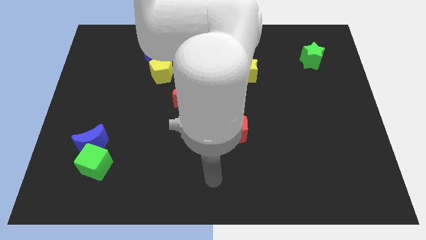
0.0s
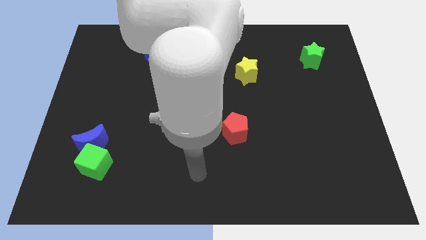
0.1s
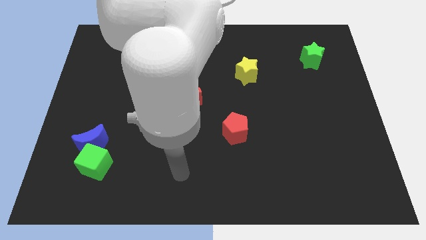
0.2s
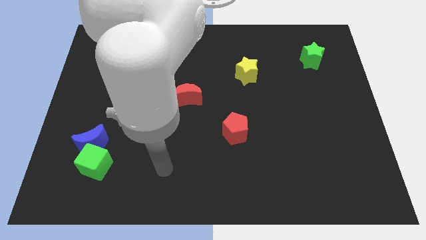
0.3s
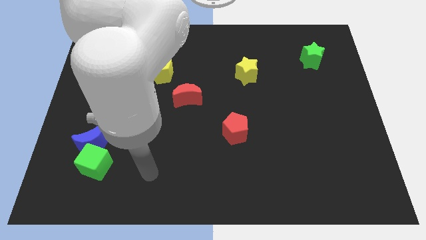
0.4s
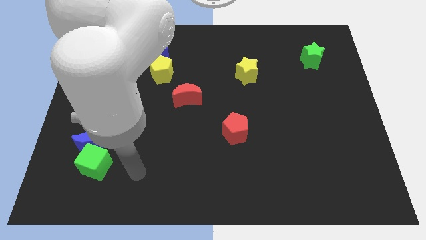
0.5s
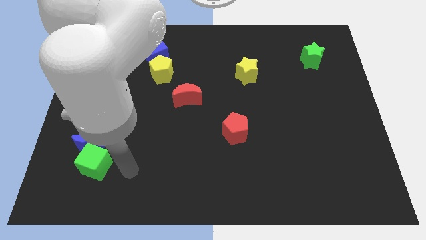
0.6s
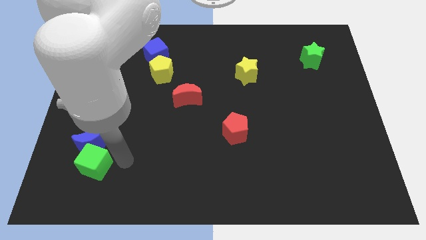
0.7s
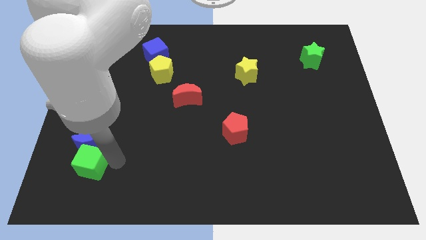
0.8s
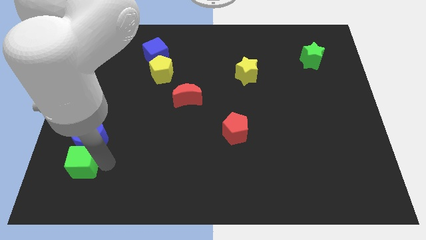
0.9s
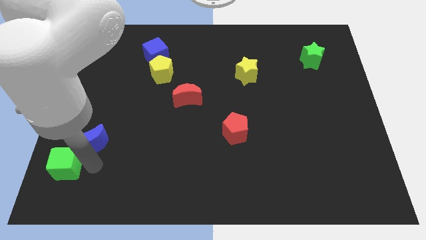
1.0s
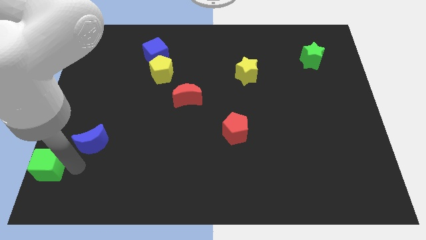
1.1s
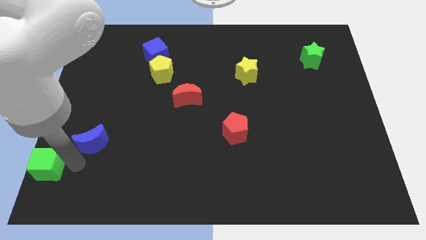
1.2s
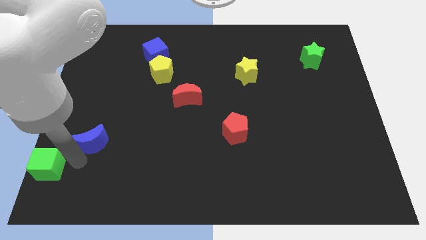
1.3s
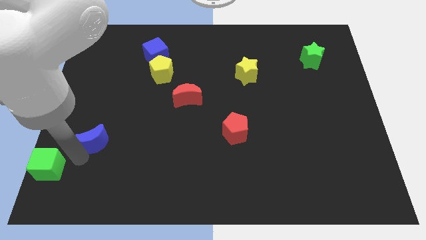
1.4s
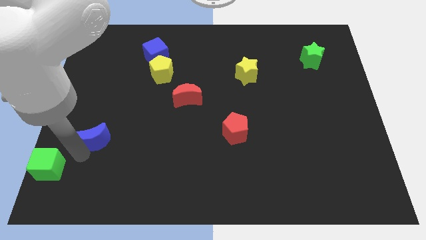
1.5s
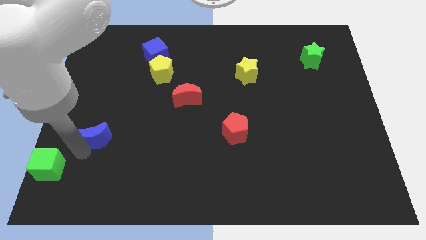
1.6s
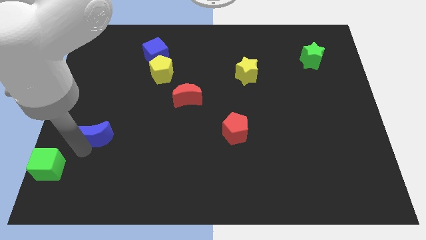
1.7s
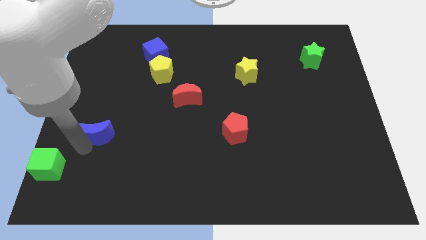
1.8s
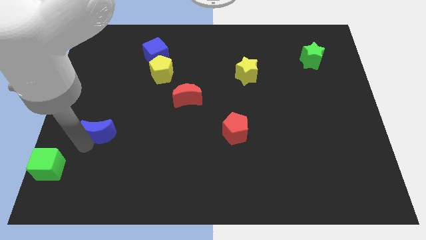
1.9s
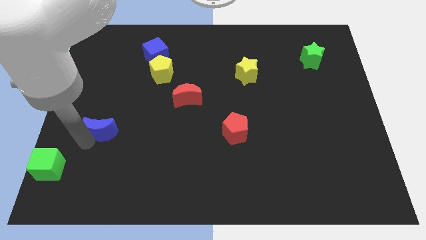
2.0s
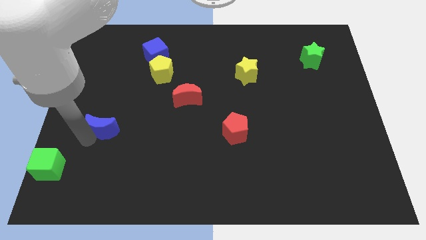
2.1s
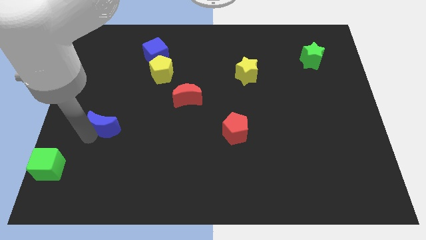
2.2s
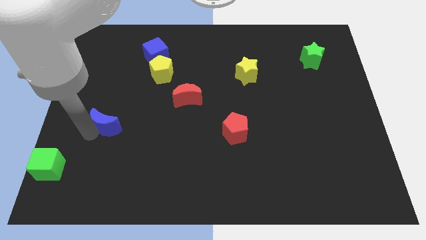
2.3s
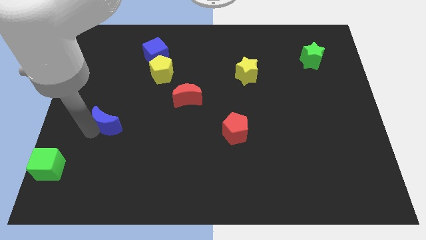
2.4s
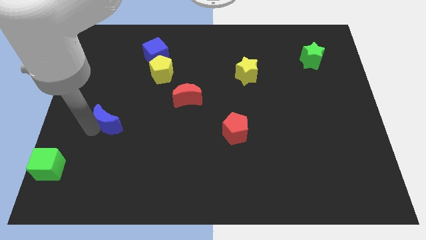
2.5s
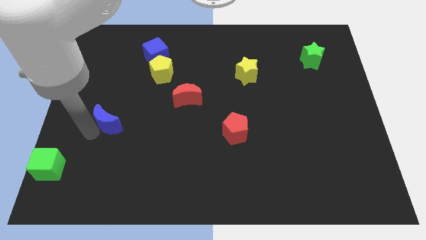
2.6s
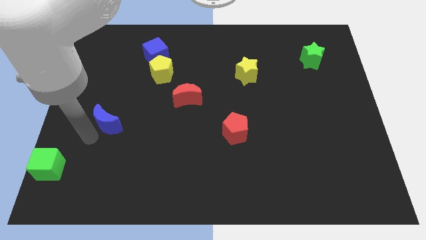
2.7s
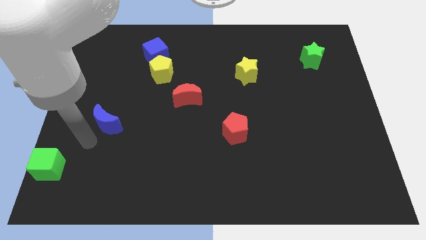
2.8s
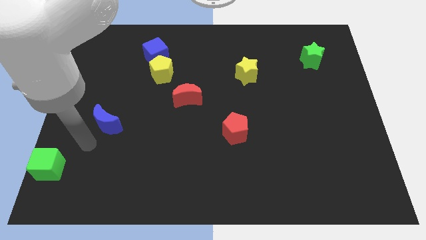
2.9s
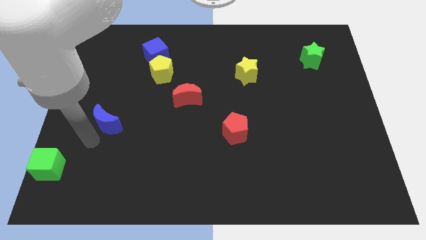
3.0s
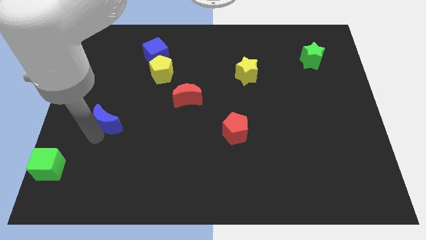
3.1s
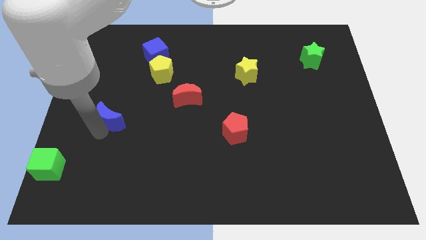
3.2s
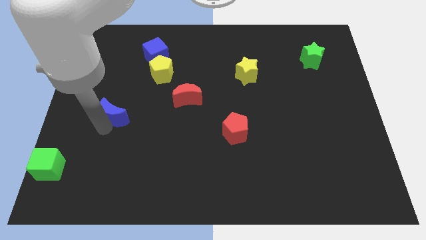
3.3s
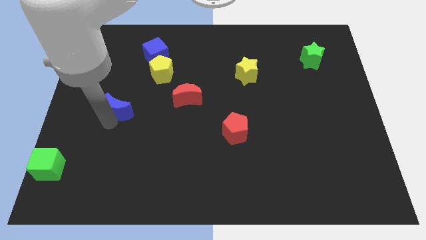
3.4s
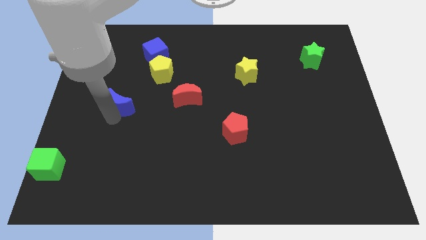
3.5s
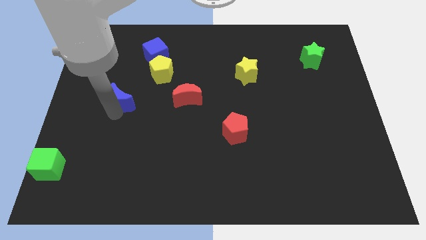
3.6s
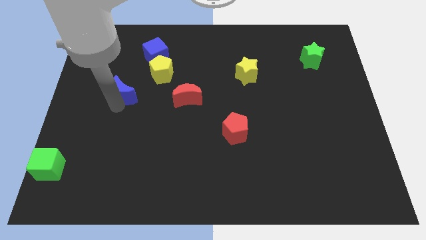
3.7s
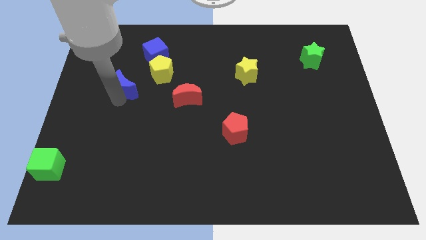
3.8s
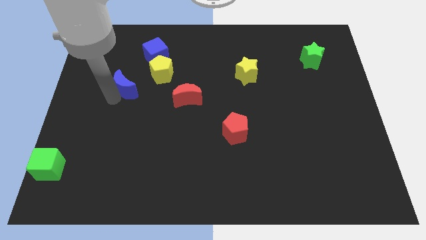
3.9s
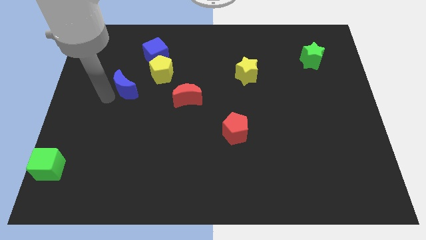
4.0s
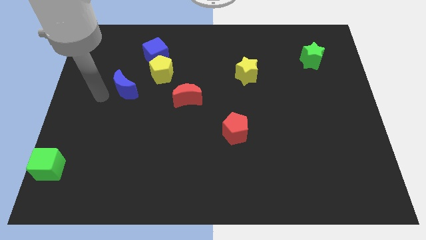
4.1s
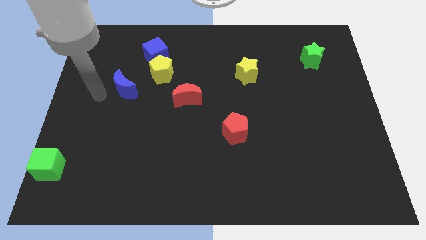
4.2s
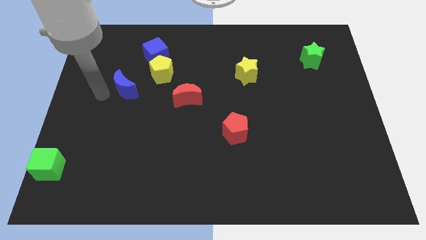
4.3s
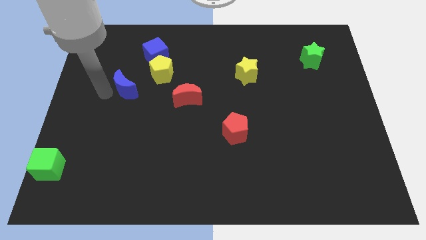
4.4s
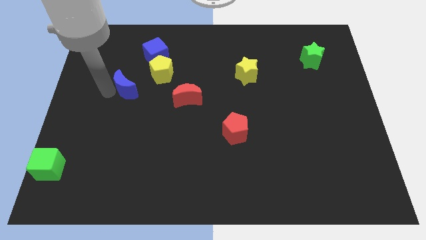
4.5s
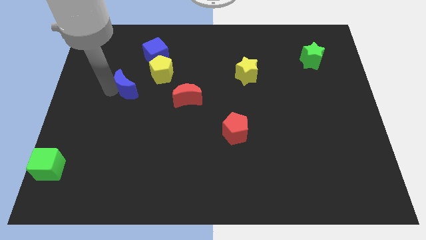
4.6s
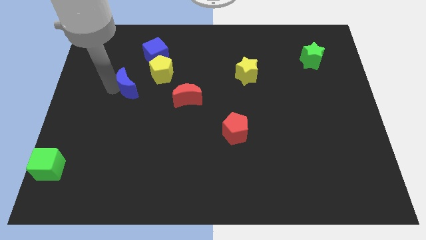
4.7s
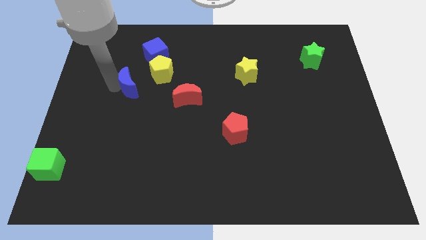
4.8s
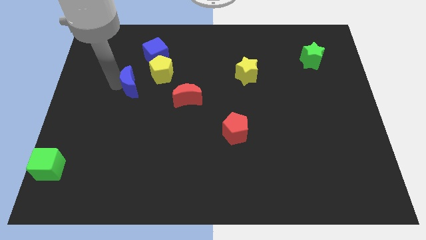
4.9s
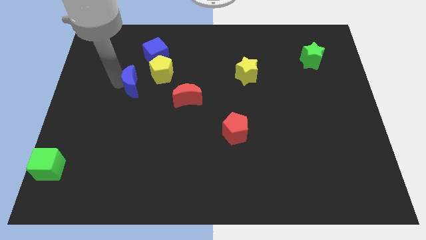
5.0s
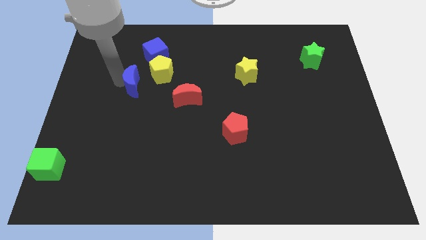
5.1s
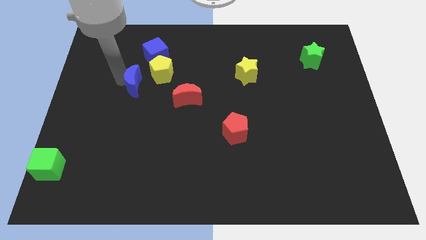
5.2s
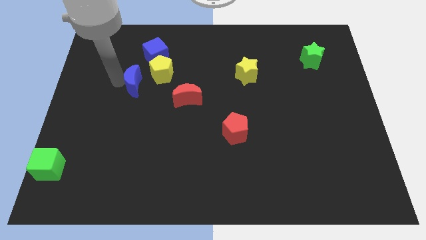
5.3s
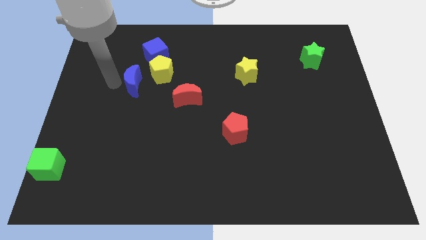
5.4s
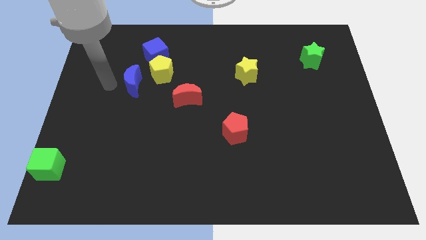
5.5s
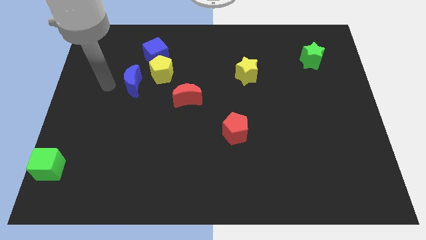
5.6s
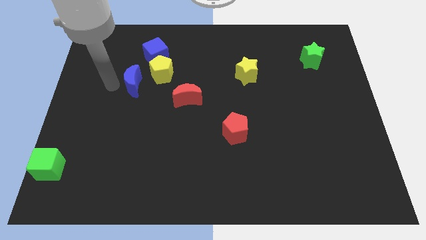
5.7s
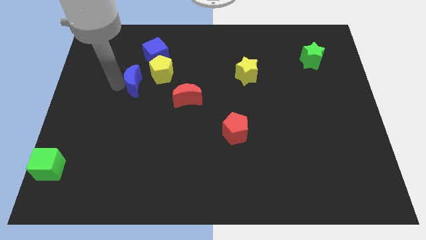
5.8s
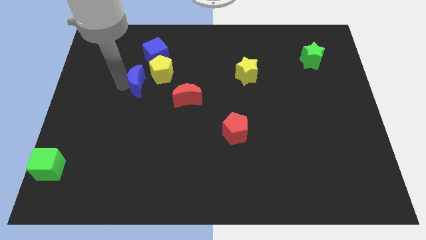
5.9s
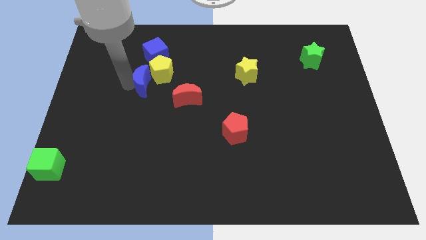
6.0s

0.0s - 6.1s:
slide the blue moon to the yellow pentagon

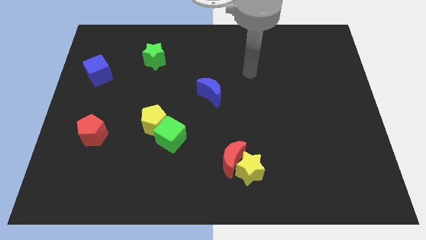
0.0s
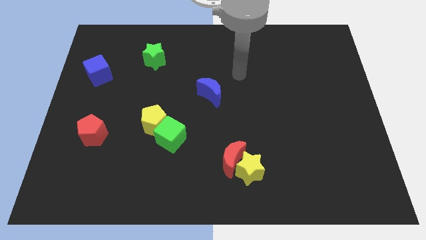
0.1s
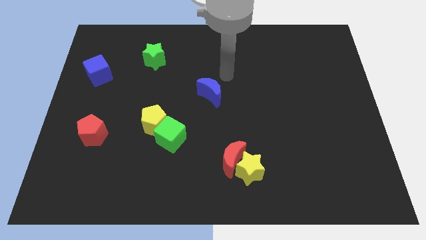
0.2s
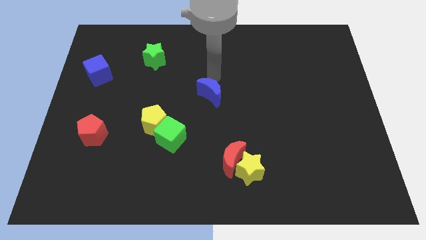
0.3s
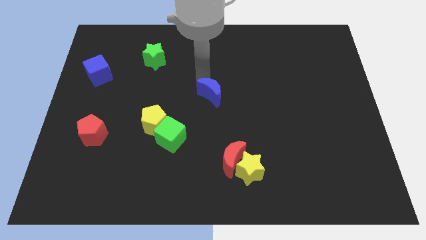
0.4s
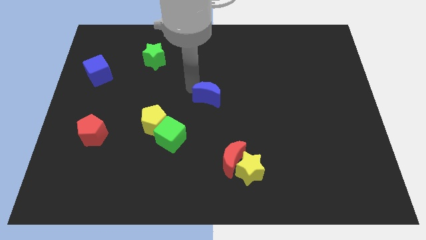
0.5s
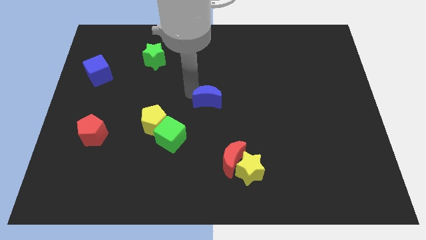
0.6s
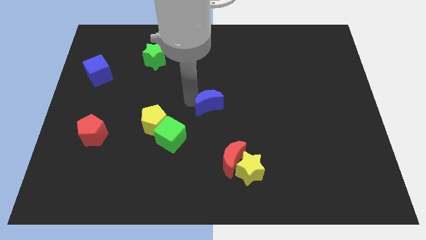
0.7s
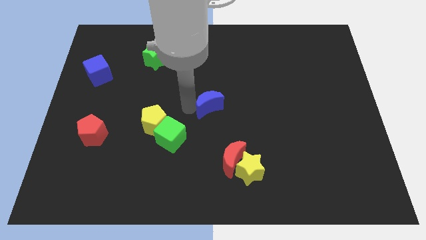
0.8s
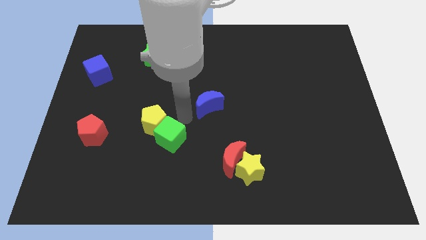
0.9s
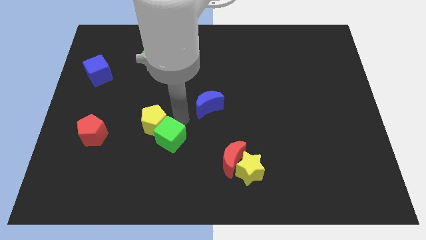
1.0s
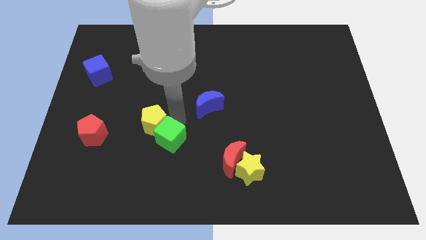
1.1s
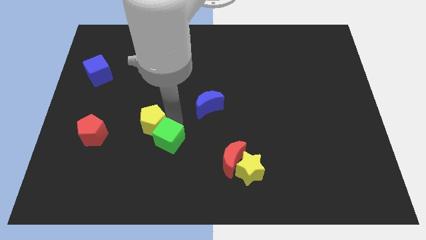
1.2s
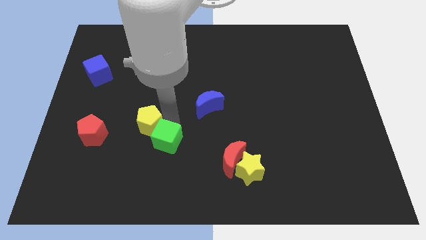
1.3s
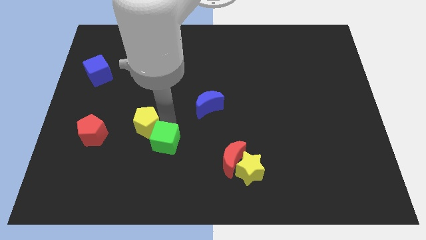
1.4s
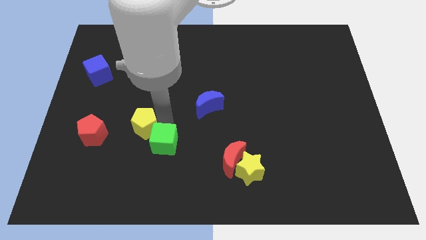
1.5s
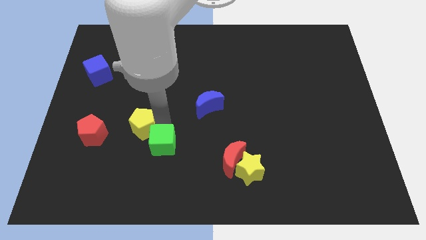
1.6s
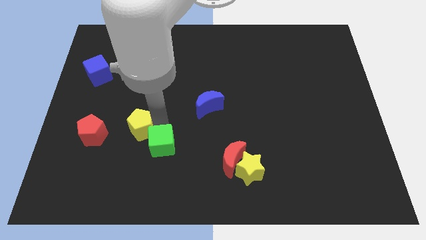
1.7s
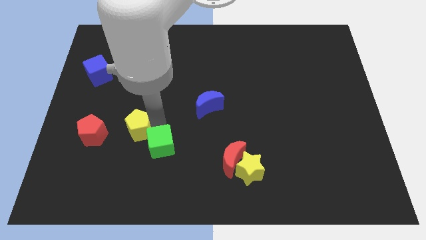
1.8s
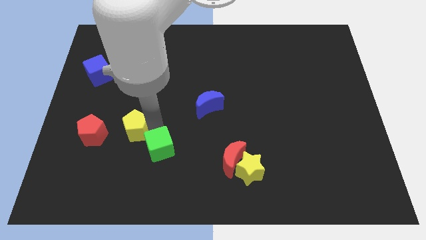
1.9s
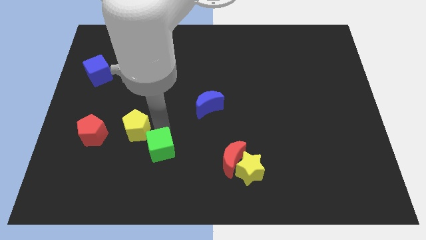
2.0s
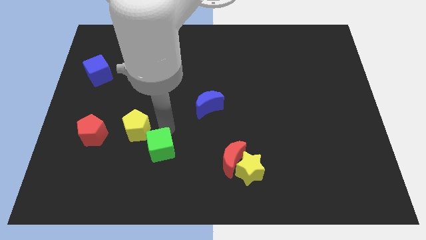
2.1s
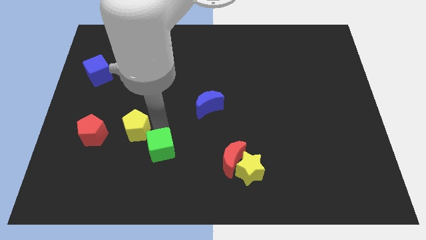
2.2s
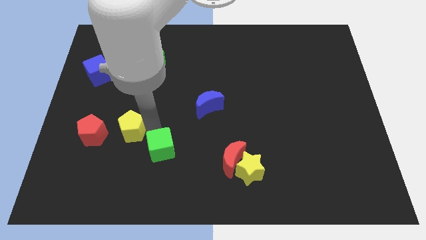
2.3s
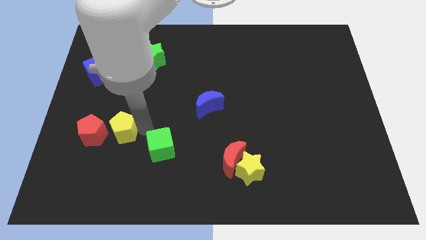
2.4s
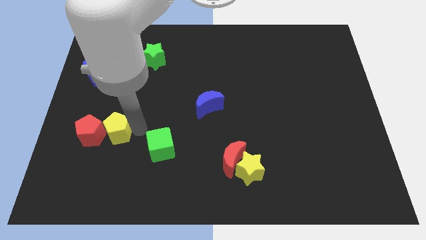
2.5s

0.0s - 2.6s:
move the yellow pentagon towards the red pentagon
